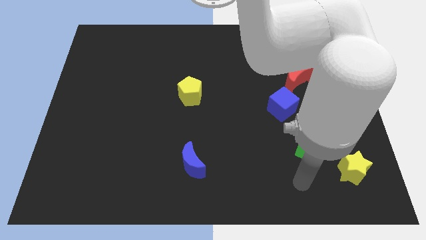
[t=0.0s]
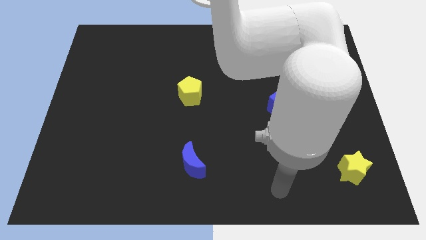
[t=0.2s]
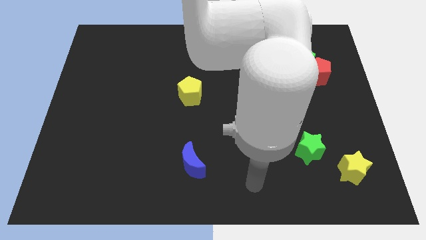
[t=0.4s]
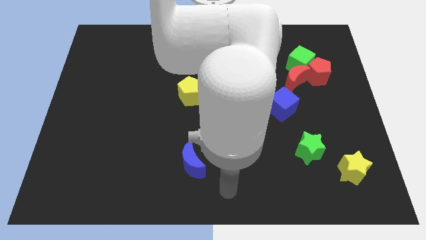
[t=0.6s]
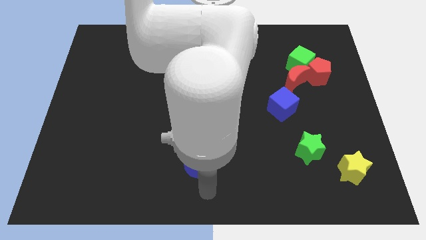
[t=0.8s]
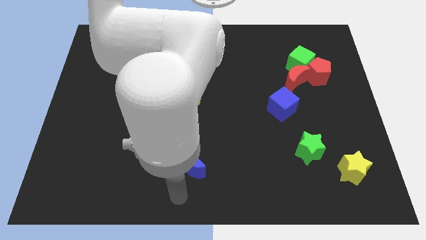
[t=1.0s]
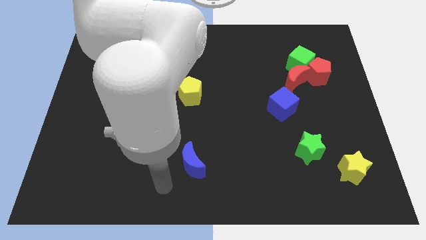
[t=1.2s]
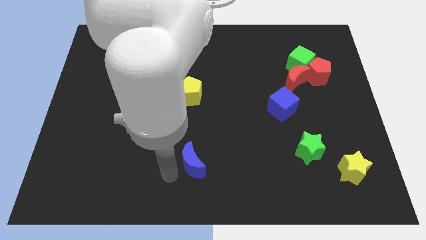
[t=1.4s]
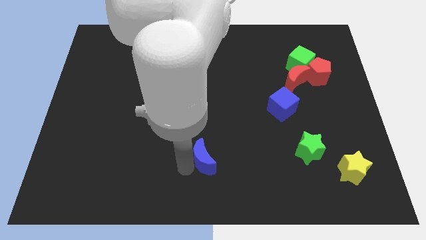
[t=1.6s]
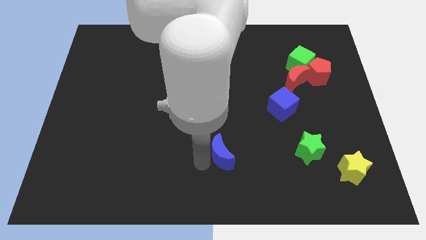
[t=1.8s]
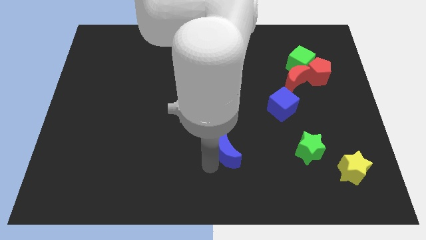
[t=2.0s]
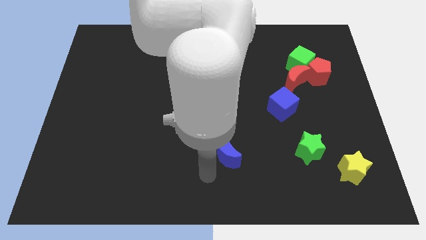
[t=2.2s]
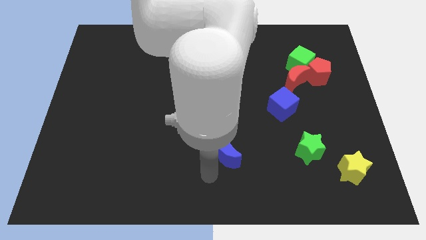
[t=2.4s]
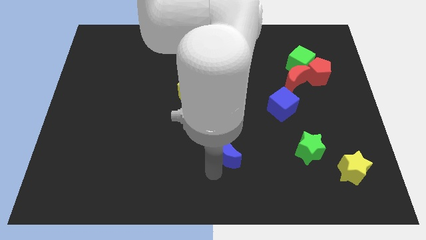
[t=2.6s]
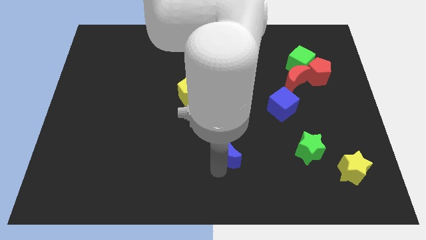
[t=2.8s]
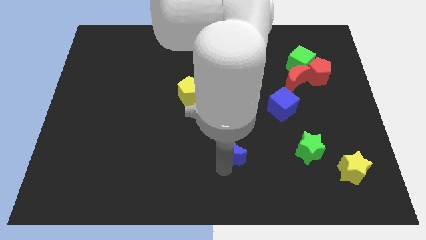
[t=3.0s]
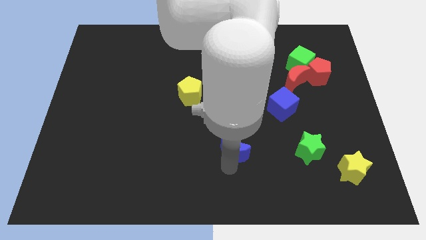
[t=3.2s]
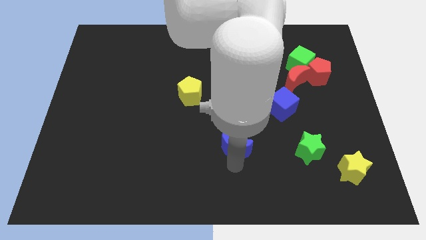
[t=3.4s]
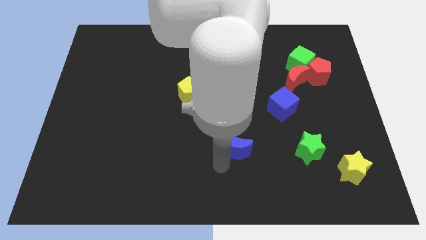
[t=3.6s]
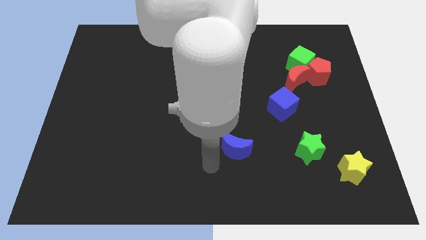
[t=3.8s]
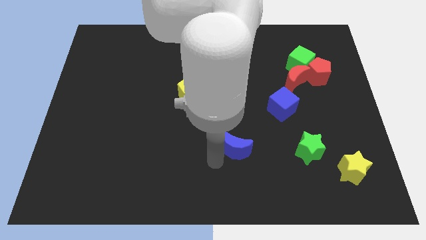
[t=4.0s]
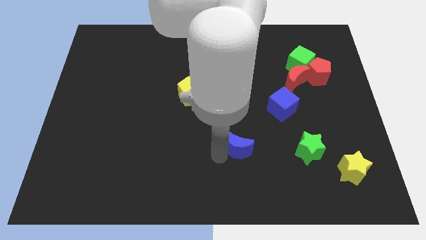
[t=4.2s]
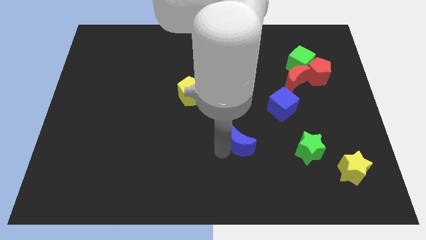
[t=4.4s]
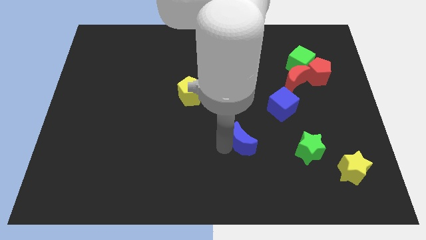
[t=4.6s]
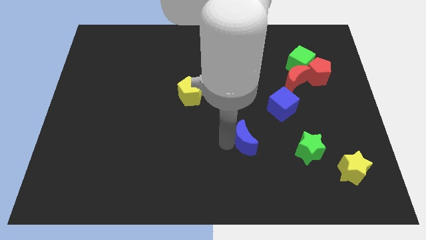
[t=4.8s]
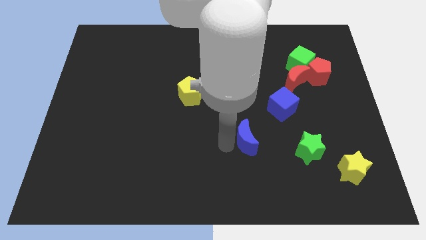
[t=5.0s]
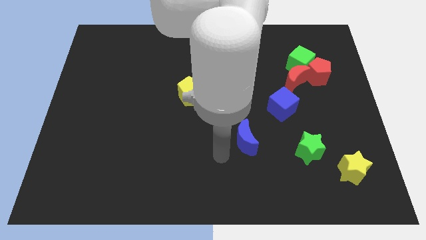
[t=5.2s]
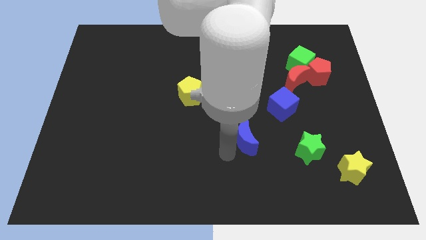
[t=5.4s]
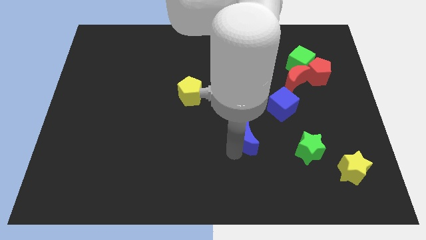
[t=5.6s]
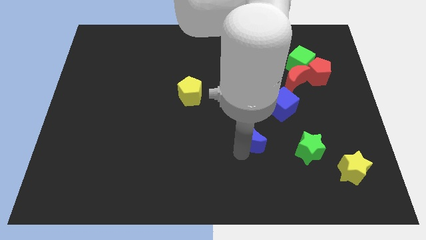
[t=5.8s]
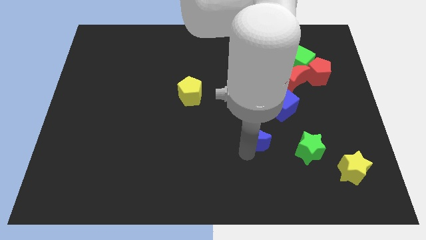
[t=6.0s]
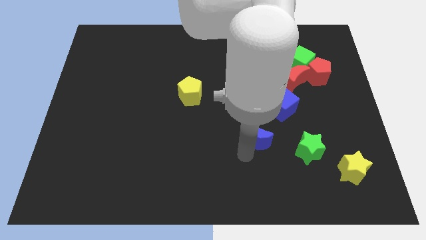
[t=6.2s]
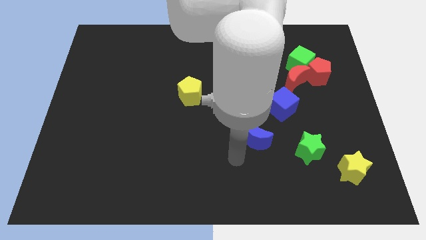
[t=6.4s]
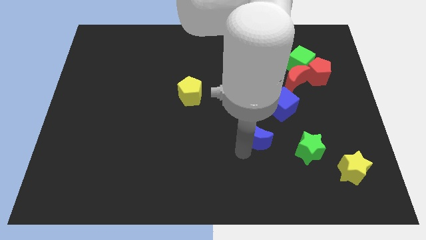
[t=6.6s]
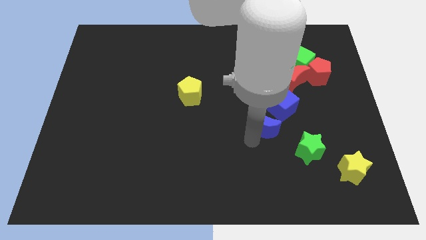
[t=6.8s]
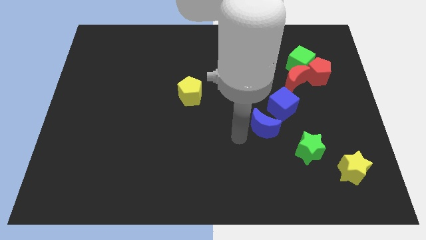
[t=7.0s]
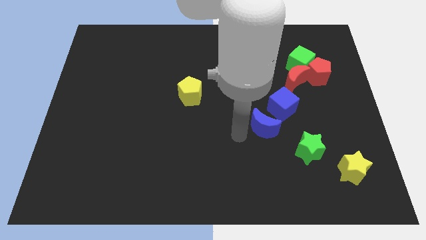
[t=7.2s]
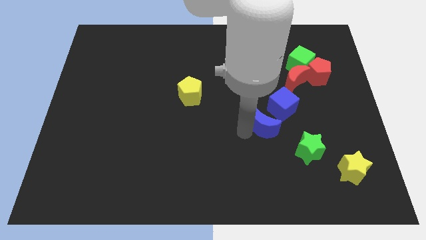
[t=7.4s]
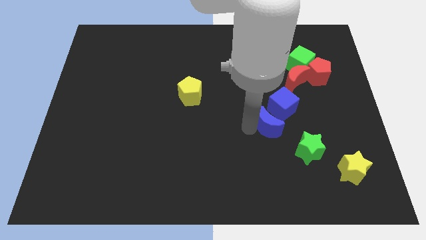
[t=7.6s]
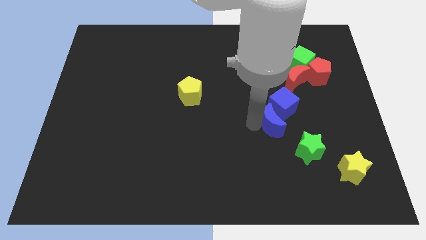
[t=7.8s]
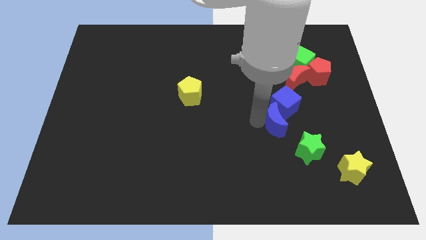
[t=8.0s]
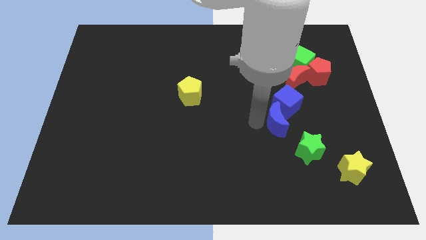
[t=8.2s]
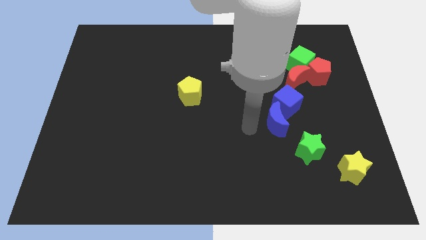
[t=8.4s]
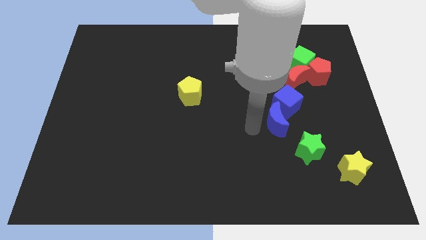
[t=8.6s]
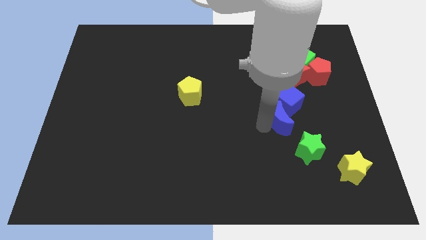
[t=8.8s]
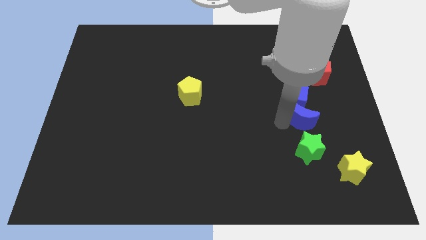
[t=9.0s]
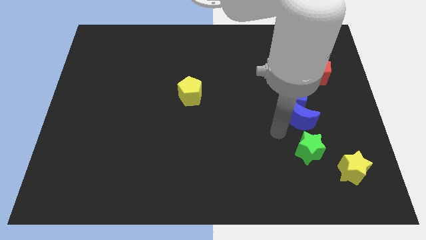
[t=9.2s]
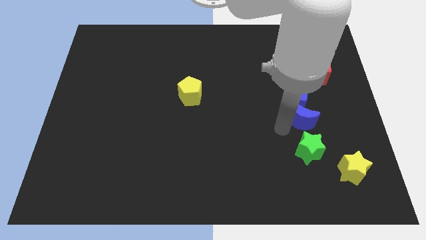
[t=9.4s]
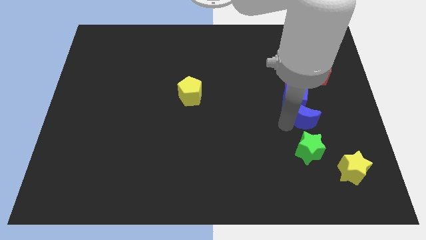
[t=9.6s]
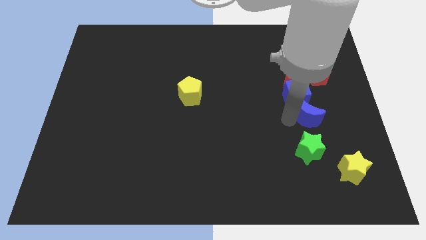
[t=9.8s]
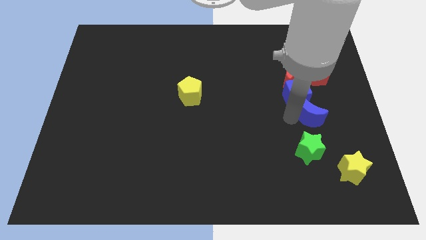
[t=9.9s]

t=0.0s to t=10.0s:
move the blue moon to the bottom of the red pentagon

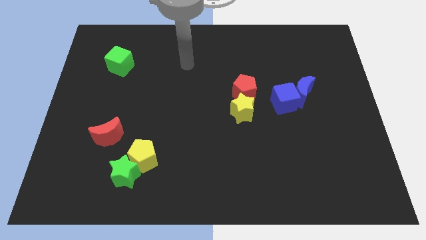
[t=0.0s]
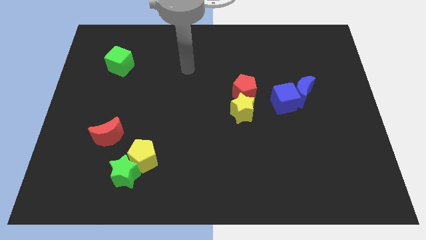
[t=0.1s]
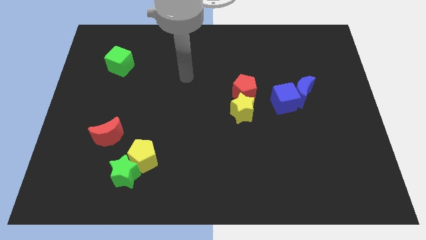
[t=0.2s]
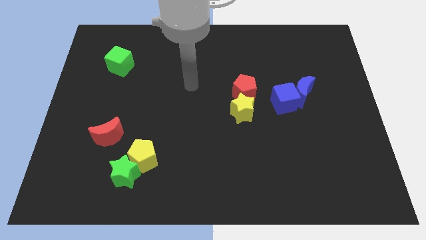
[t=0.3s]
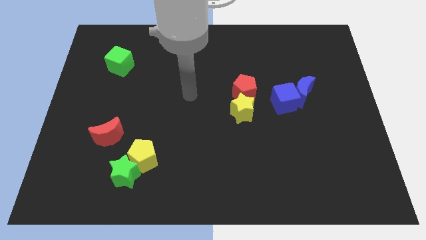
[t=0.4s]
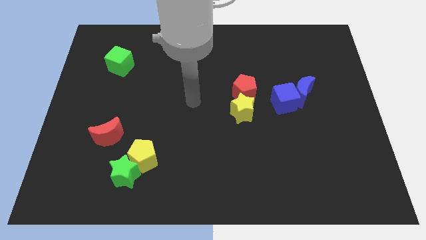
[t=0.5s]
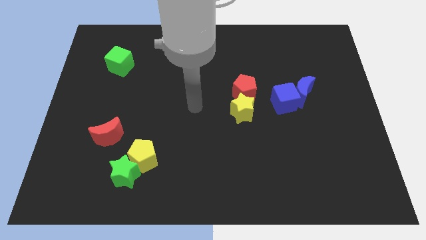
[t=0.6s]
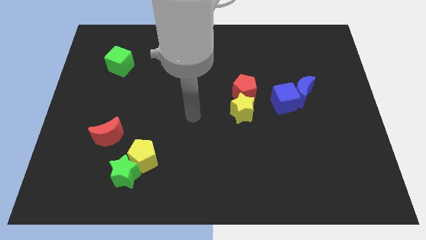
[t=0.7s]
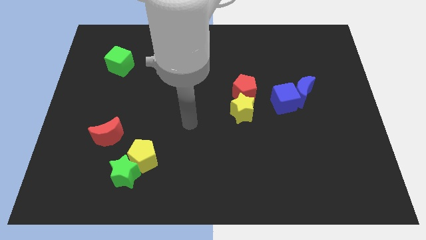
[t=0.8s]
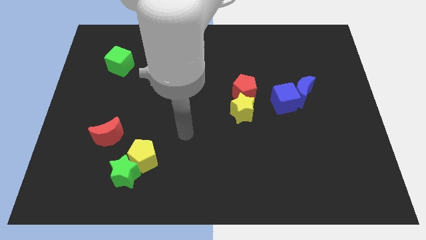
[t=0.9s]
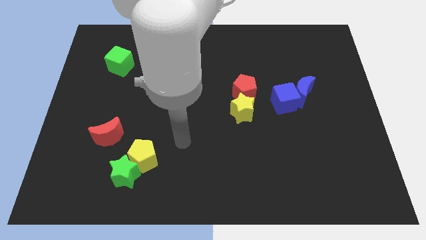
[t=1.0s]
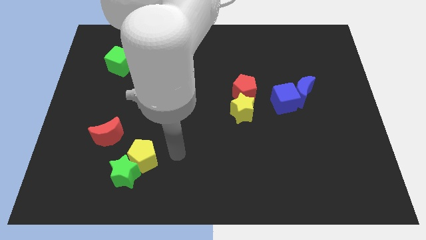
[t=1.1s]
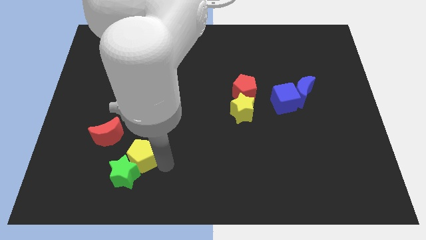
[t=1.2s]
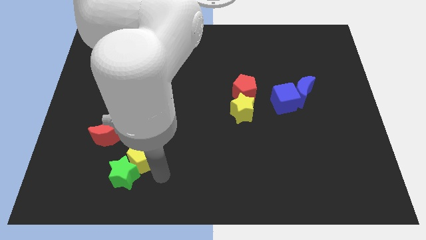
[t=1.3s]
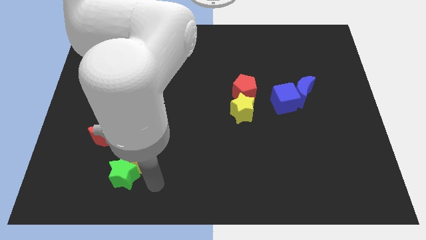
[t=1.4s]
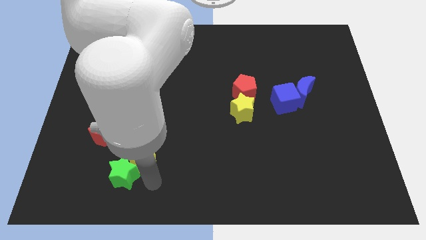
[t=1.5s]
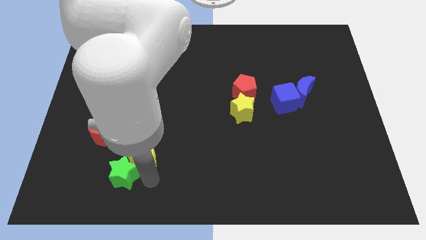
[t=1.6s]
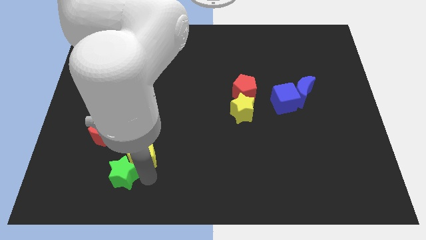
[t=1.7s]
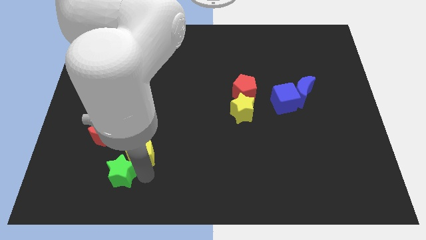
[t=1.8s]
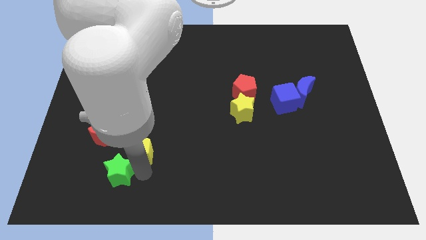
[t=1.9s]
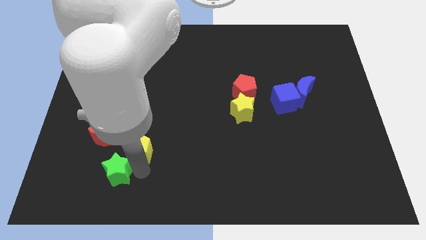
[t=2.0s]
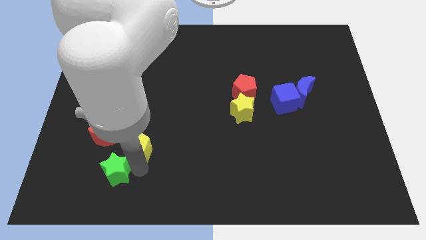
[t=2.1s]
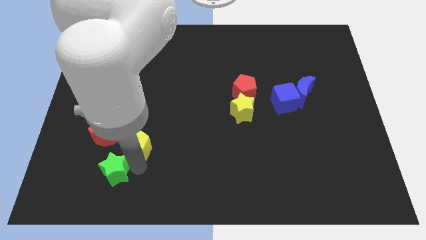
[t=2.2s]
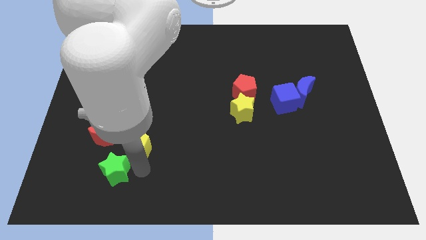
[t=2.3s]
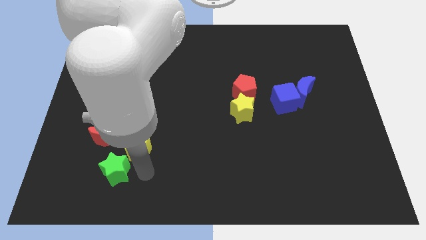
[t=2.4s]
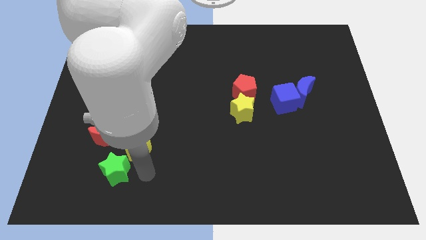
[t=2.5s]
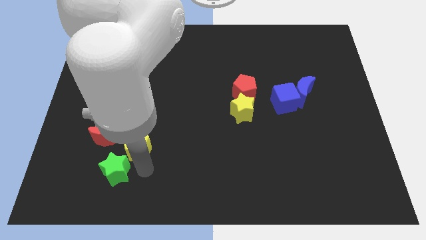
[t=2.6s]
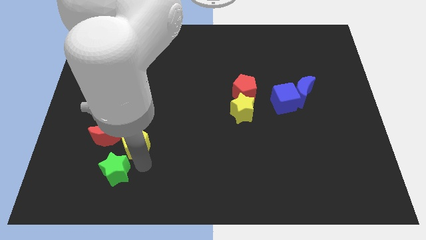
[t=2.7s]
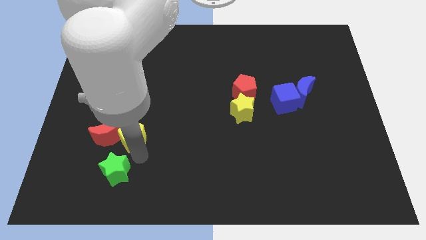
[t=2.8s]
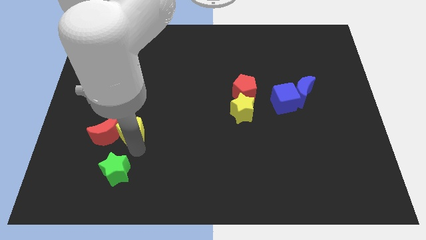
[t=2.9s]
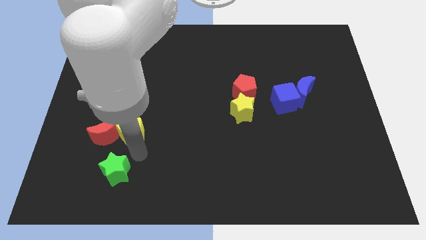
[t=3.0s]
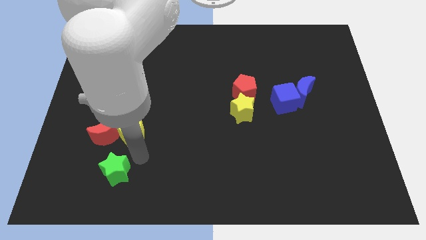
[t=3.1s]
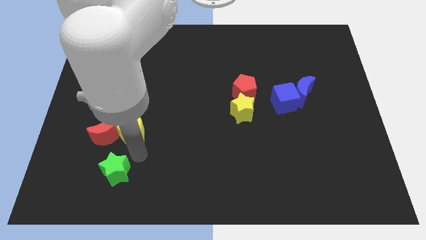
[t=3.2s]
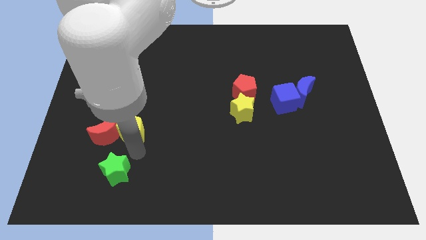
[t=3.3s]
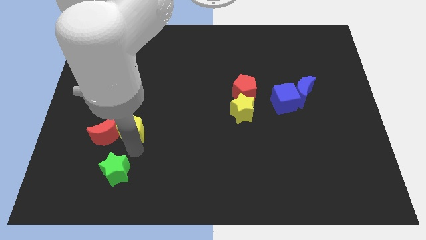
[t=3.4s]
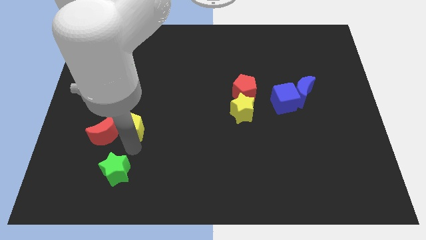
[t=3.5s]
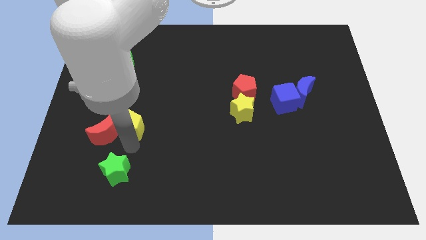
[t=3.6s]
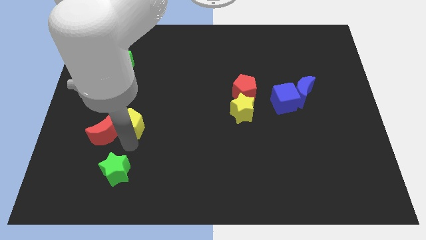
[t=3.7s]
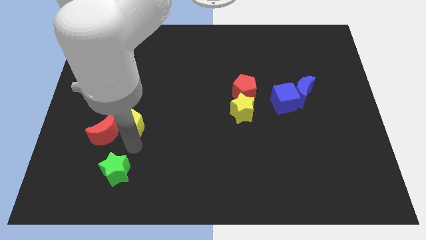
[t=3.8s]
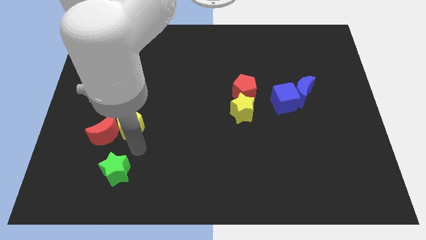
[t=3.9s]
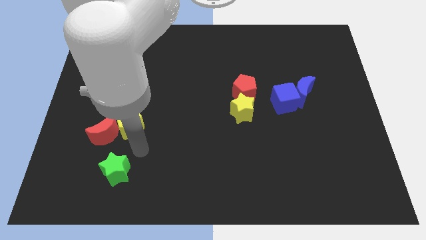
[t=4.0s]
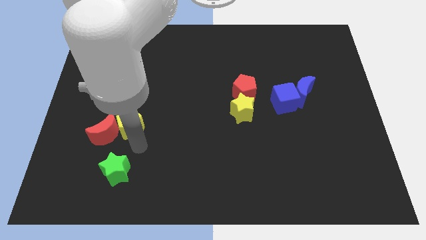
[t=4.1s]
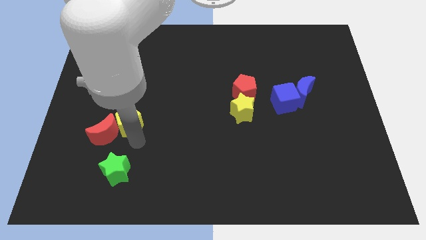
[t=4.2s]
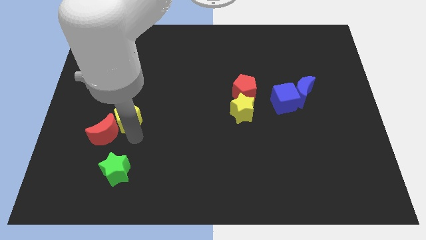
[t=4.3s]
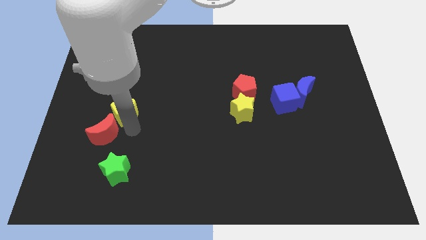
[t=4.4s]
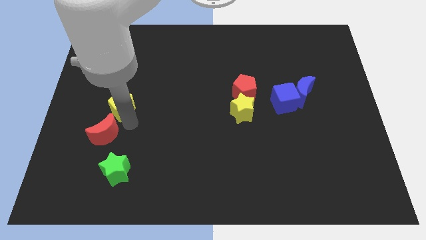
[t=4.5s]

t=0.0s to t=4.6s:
move the yellow pentagon to the bottom side of the green cube
